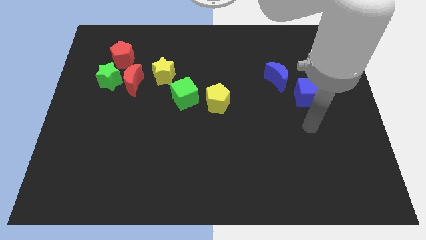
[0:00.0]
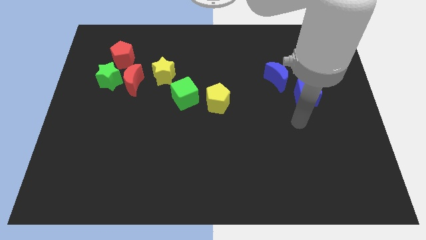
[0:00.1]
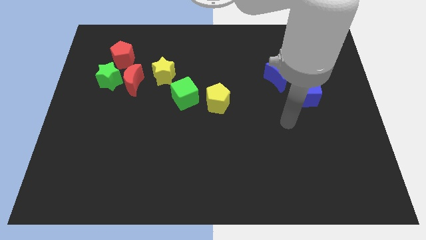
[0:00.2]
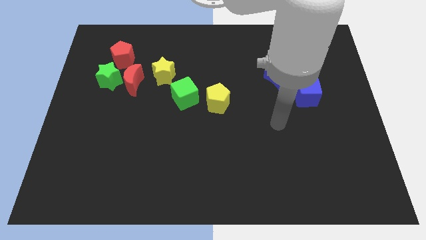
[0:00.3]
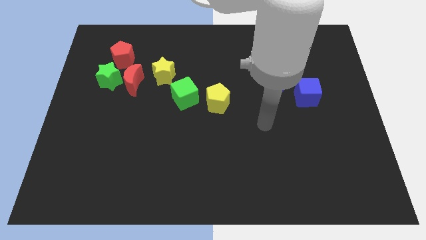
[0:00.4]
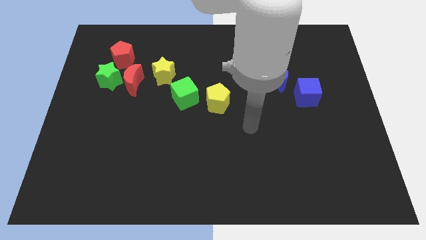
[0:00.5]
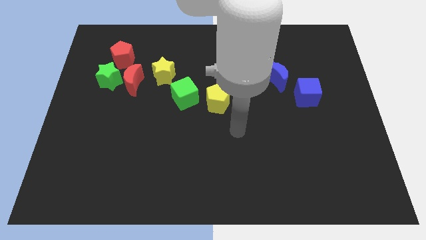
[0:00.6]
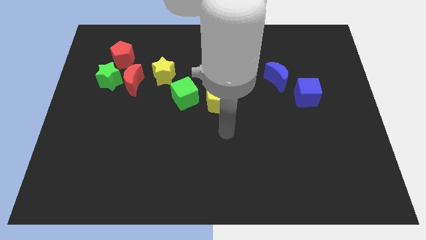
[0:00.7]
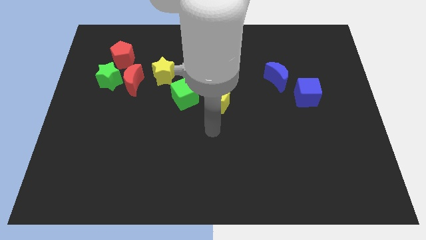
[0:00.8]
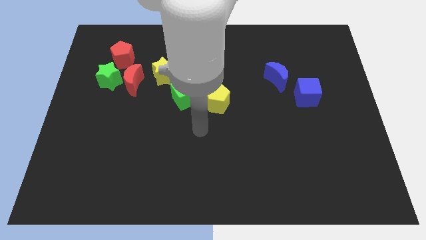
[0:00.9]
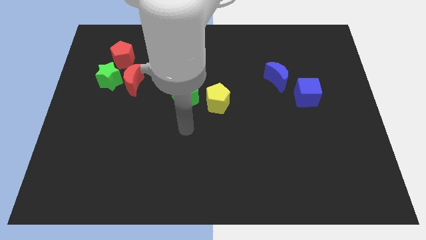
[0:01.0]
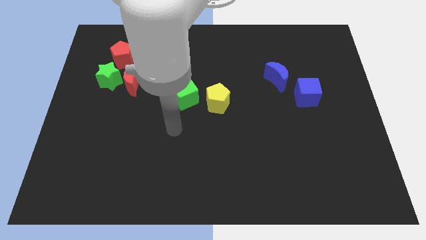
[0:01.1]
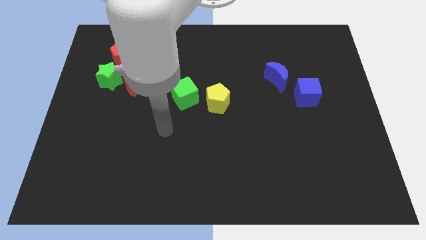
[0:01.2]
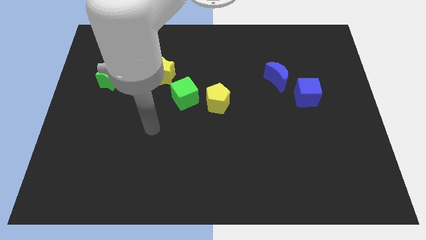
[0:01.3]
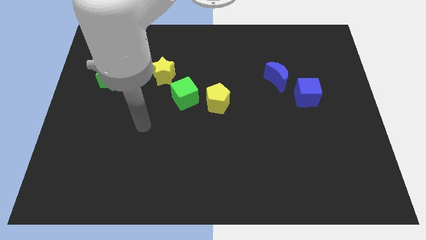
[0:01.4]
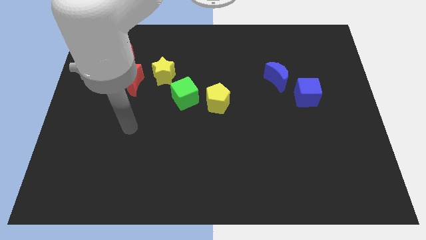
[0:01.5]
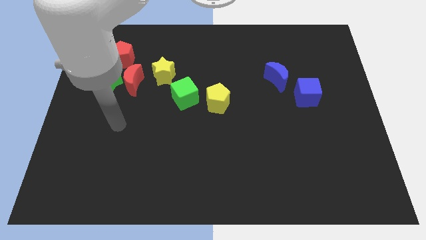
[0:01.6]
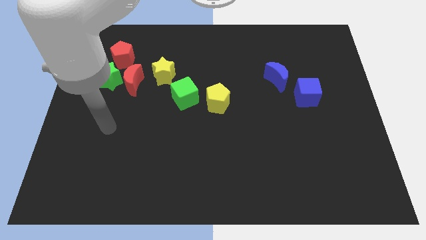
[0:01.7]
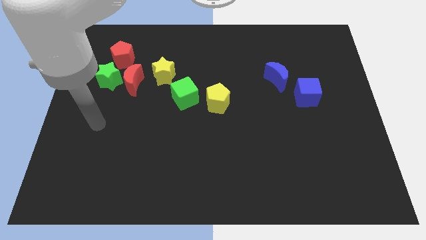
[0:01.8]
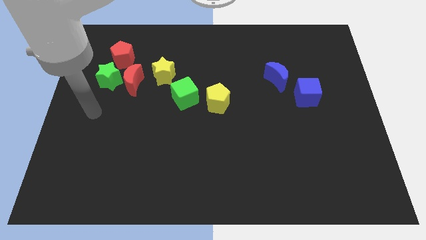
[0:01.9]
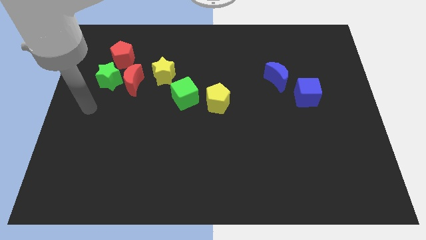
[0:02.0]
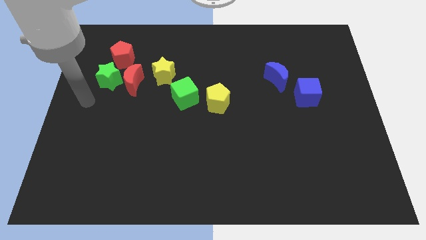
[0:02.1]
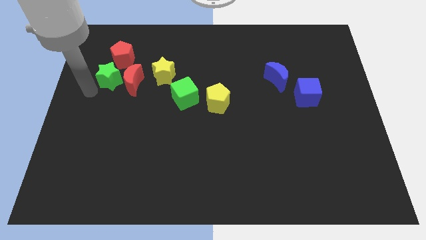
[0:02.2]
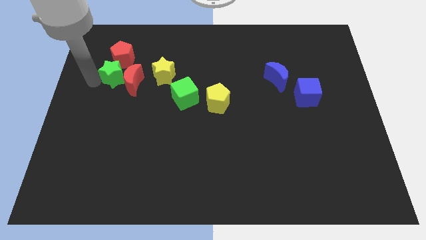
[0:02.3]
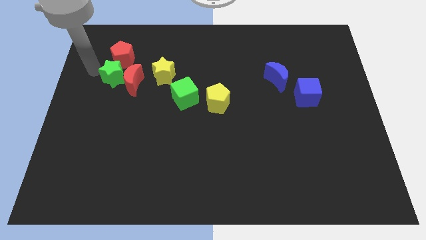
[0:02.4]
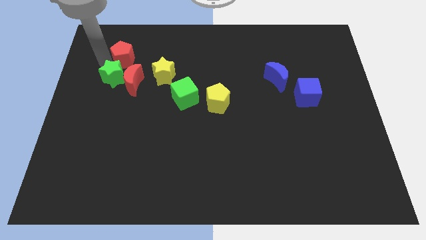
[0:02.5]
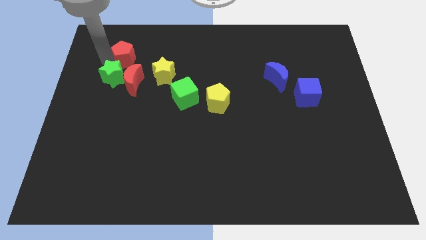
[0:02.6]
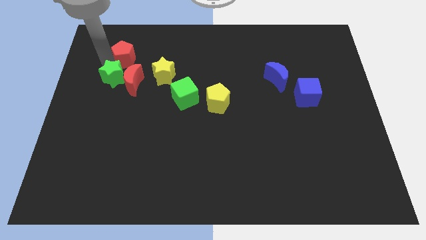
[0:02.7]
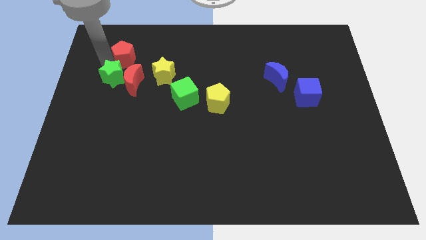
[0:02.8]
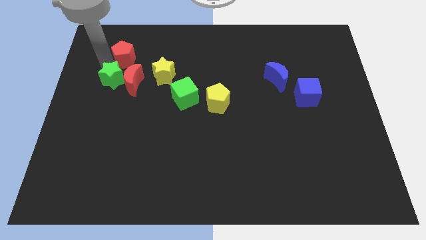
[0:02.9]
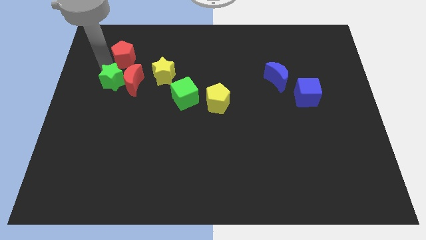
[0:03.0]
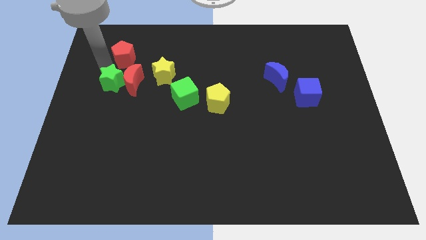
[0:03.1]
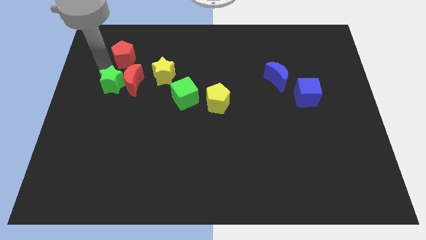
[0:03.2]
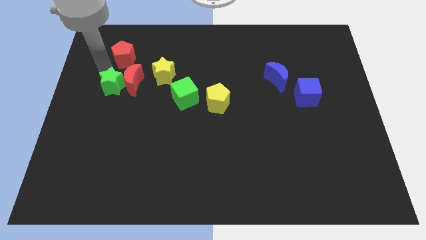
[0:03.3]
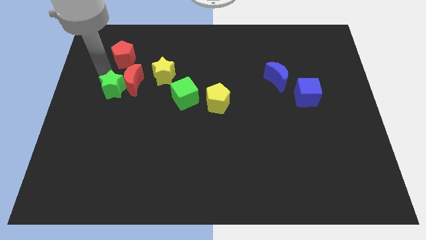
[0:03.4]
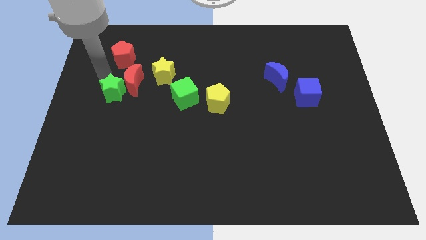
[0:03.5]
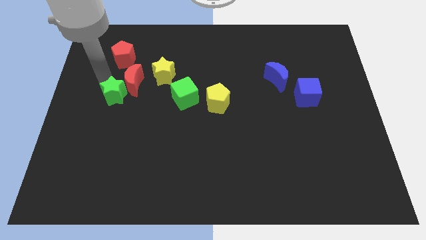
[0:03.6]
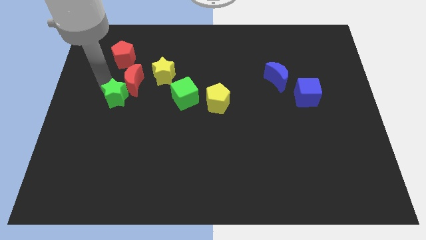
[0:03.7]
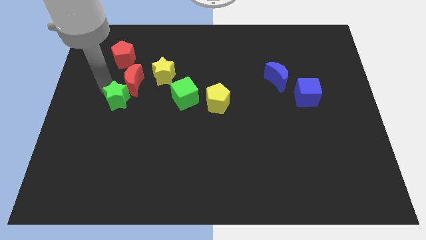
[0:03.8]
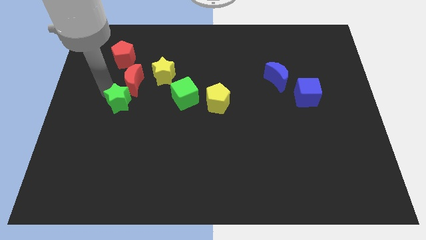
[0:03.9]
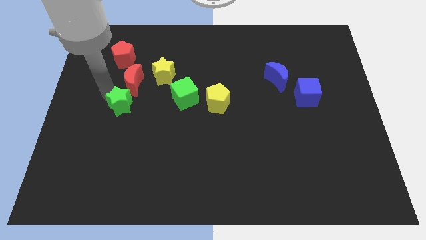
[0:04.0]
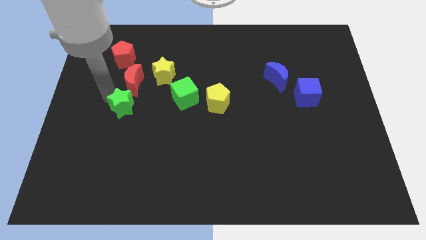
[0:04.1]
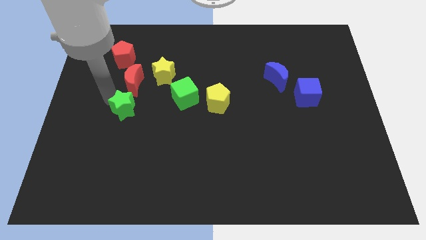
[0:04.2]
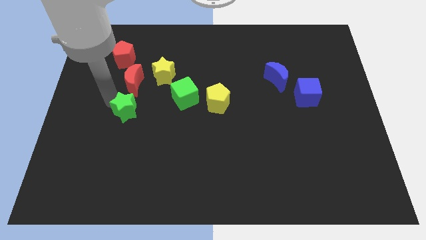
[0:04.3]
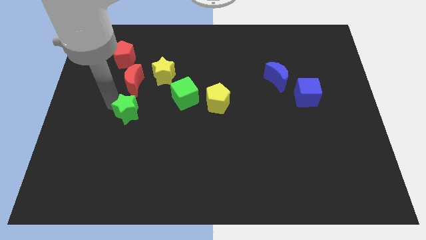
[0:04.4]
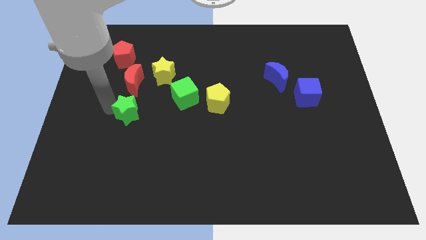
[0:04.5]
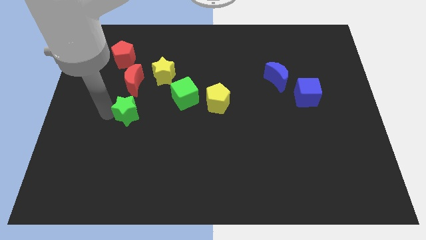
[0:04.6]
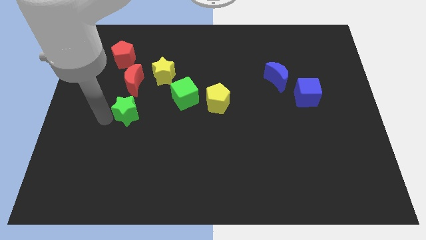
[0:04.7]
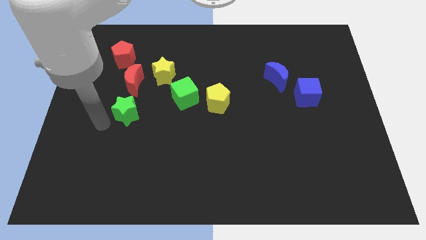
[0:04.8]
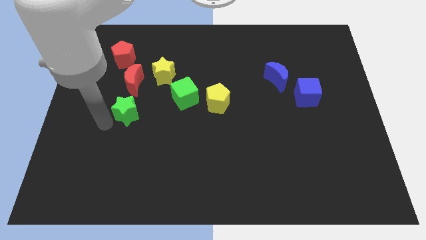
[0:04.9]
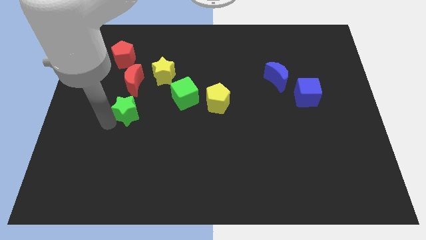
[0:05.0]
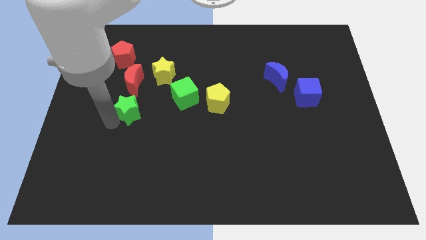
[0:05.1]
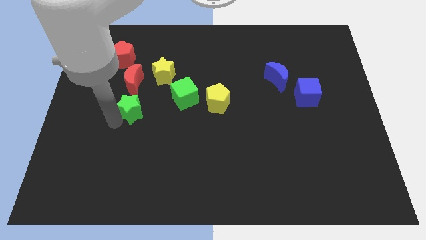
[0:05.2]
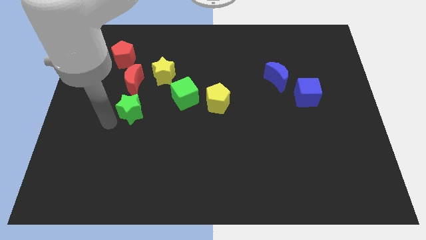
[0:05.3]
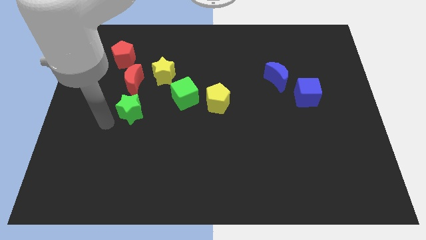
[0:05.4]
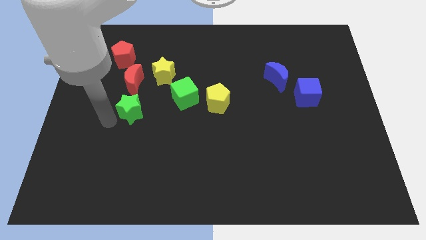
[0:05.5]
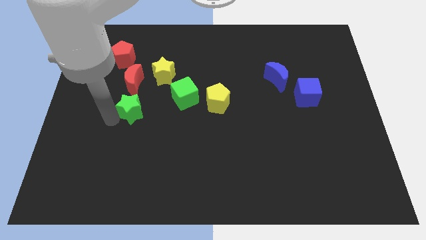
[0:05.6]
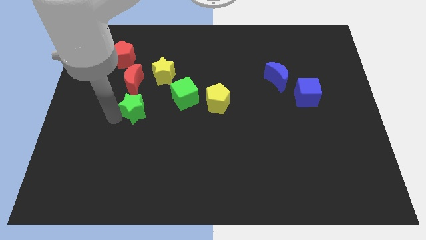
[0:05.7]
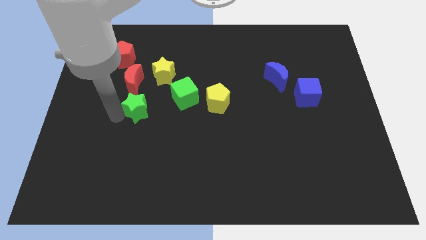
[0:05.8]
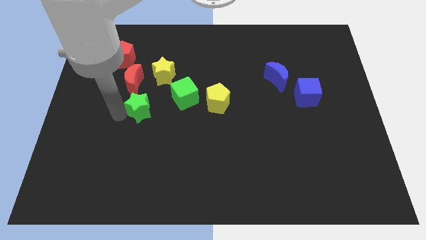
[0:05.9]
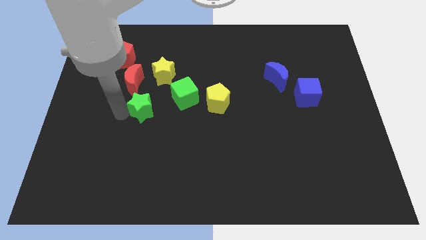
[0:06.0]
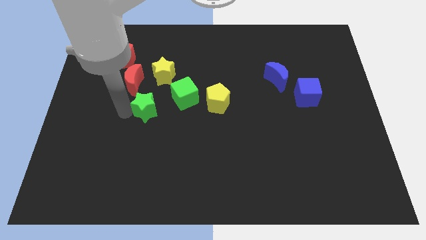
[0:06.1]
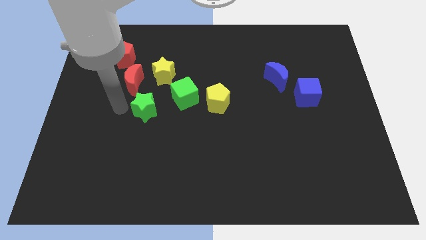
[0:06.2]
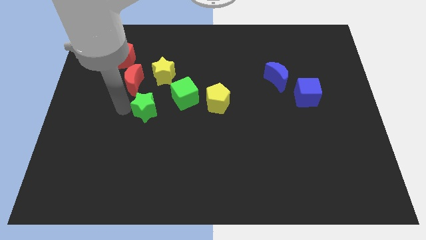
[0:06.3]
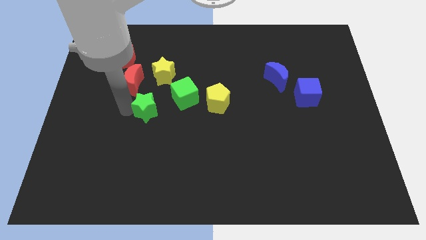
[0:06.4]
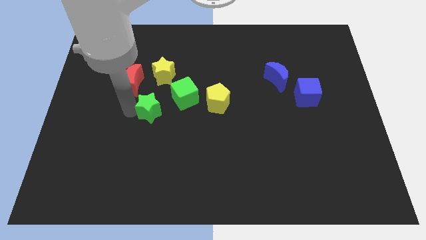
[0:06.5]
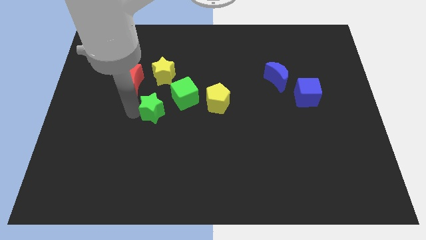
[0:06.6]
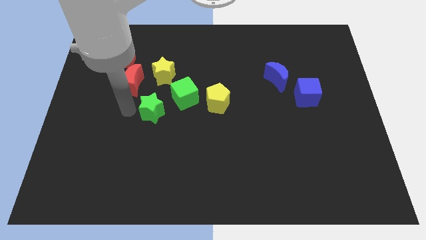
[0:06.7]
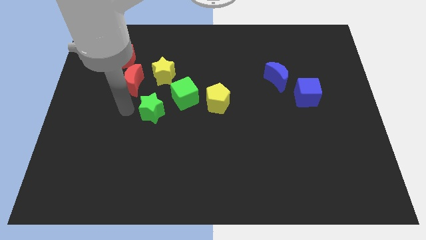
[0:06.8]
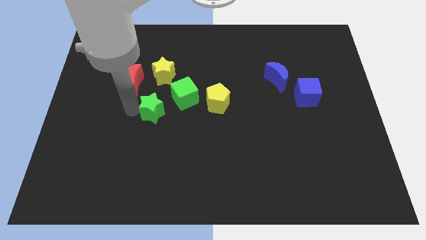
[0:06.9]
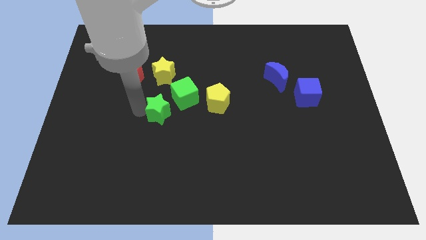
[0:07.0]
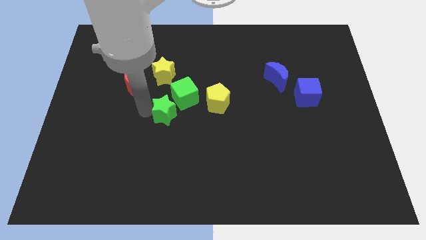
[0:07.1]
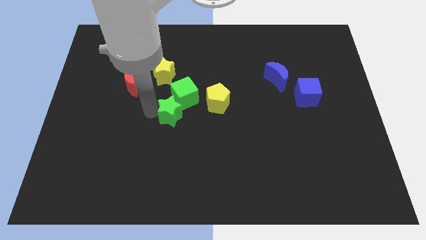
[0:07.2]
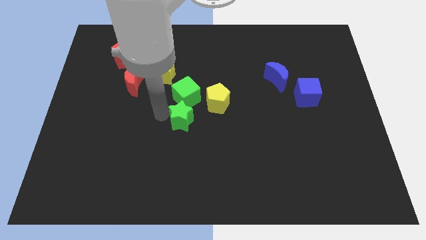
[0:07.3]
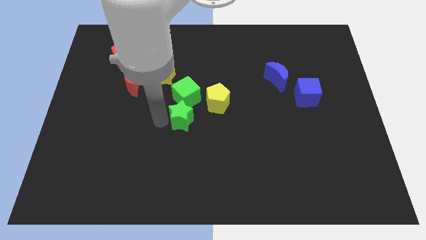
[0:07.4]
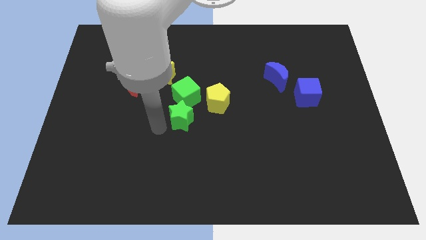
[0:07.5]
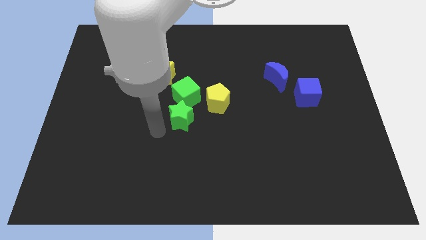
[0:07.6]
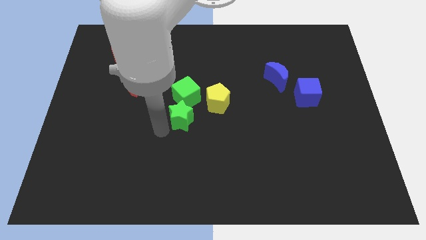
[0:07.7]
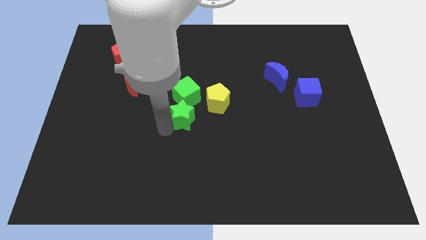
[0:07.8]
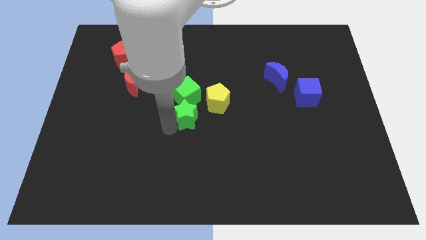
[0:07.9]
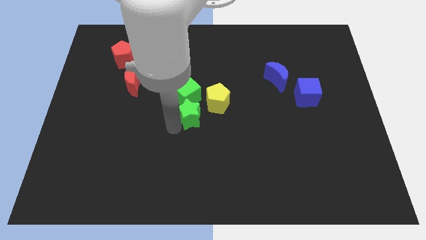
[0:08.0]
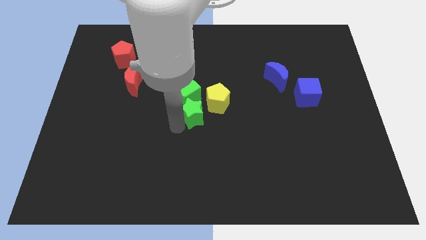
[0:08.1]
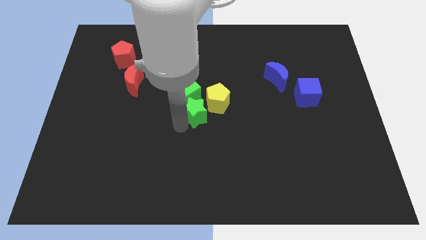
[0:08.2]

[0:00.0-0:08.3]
slide the green star next to the yellow pentagon
